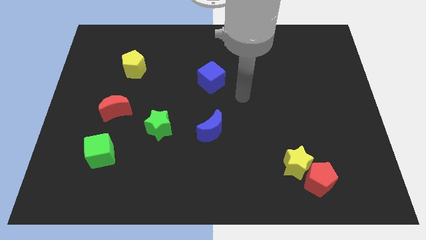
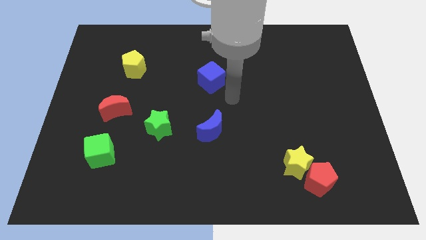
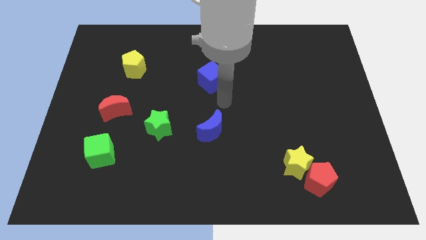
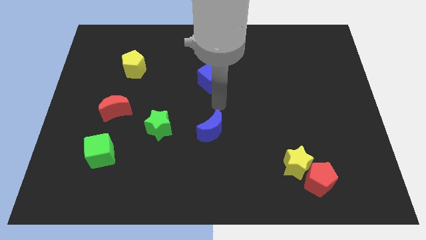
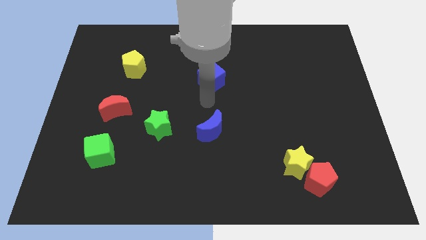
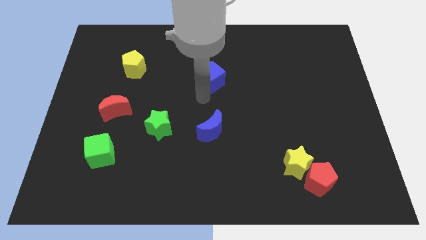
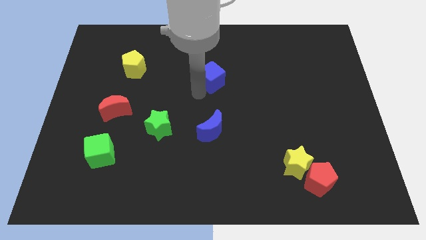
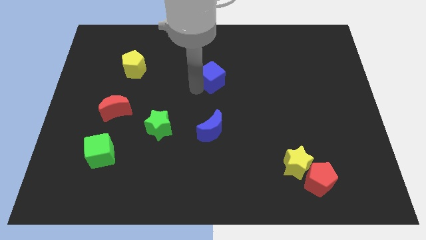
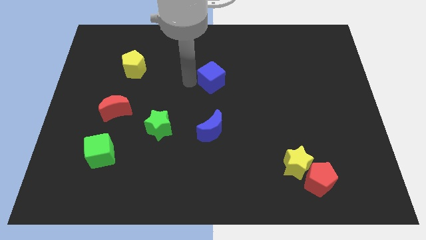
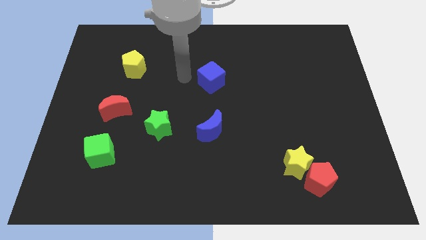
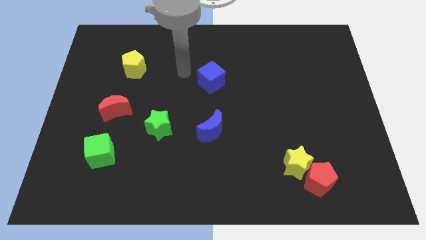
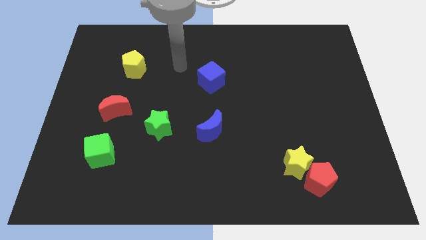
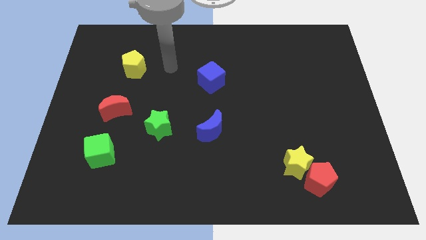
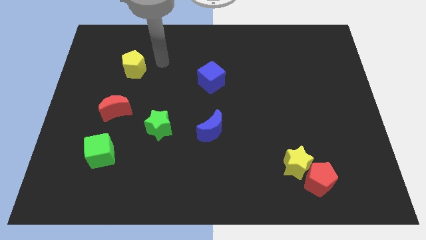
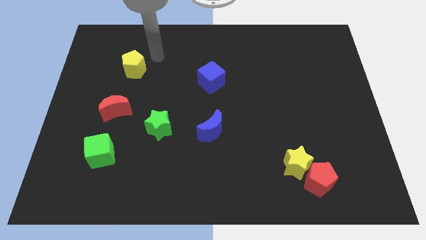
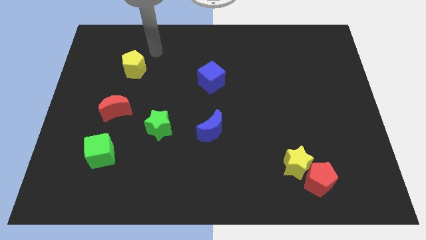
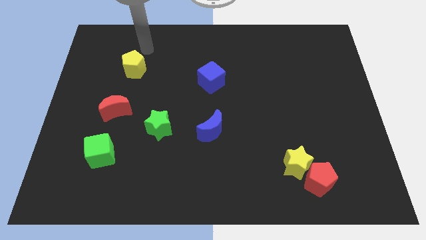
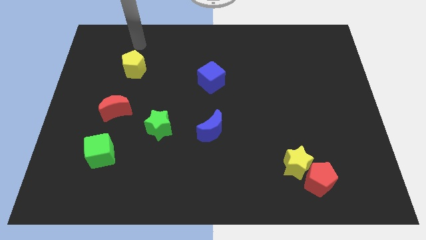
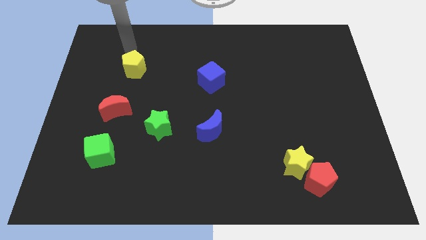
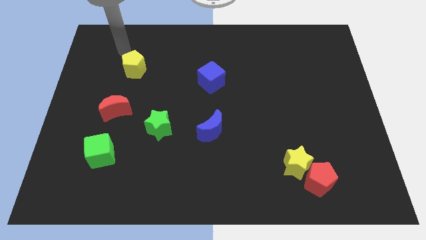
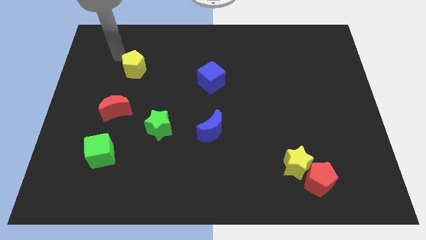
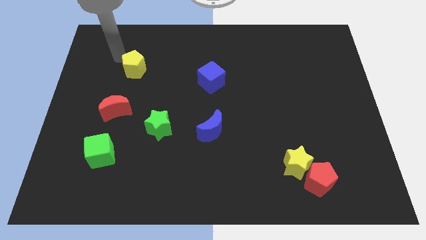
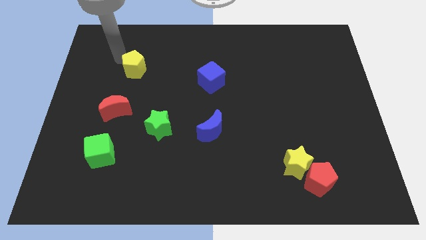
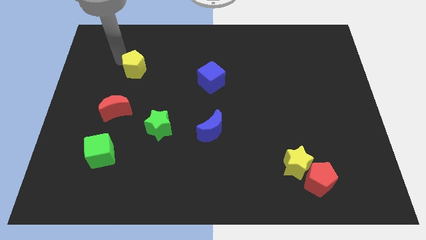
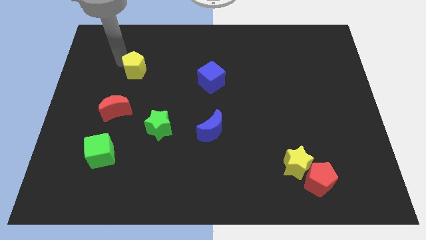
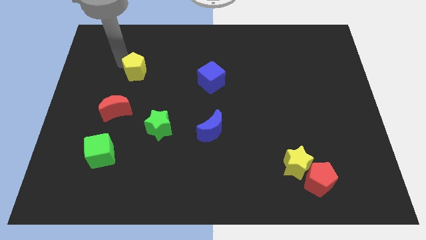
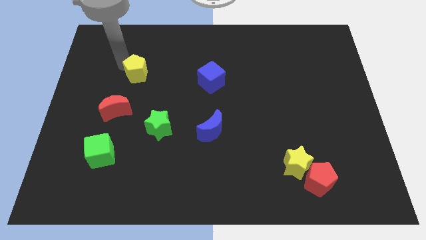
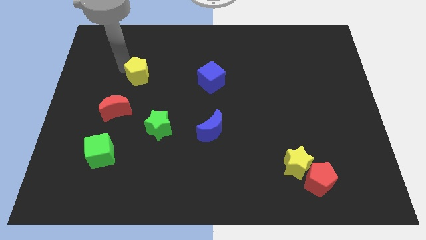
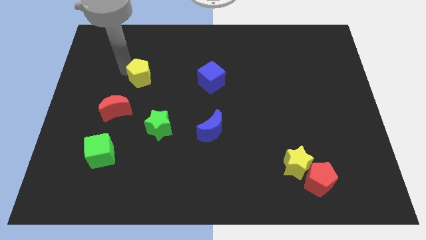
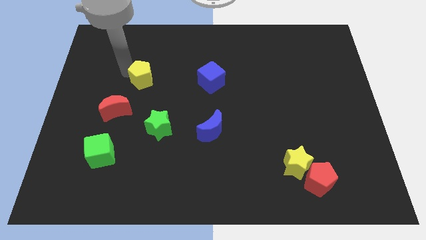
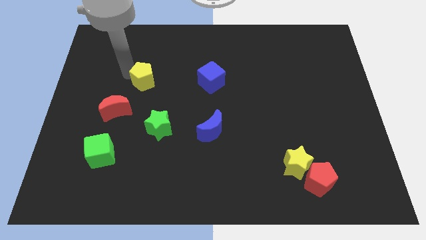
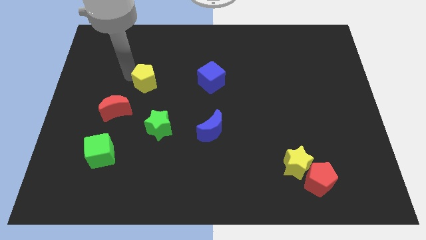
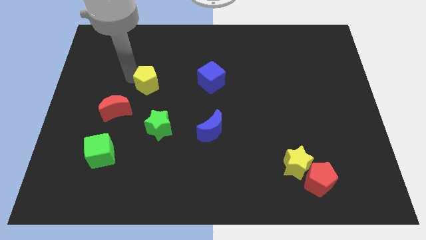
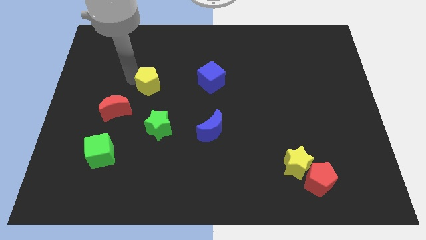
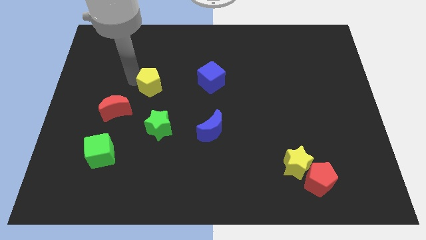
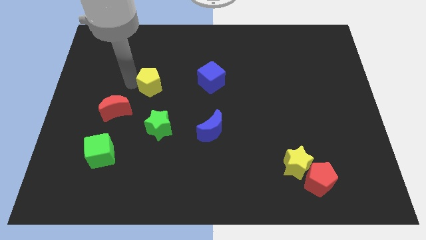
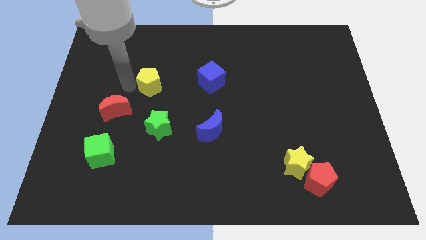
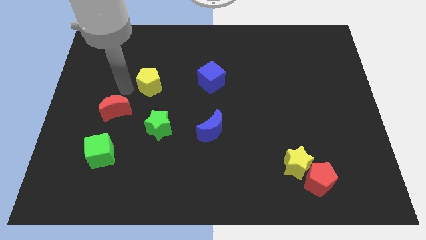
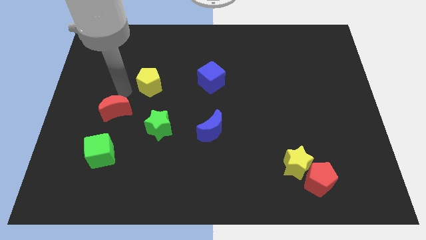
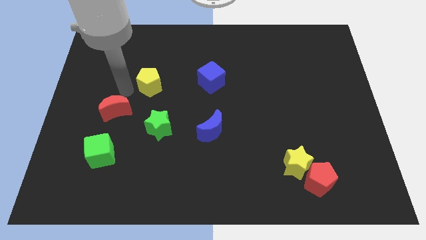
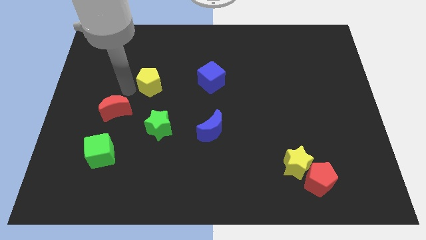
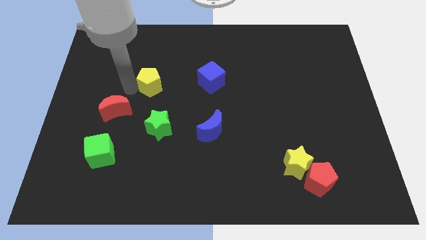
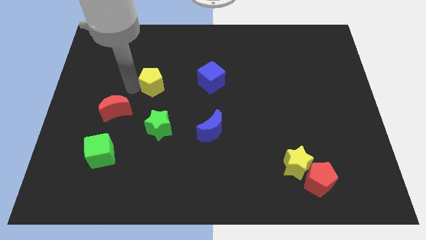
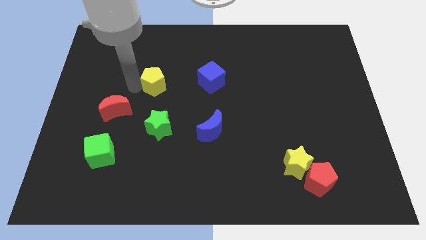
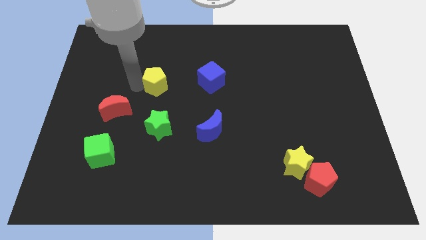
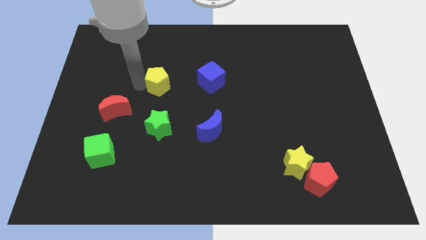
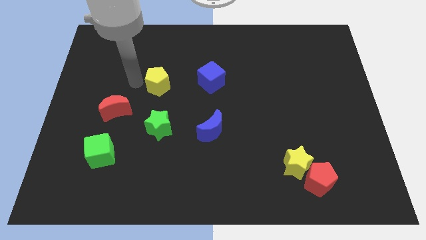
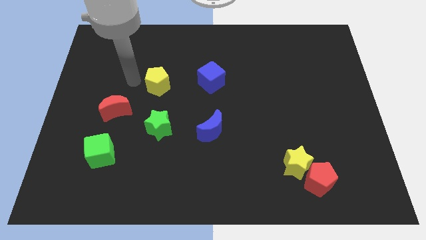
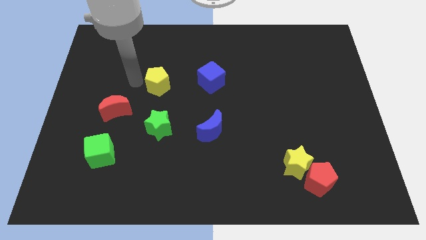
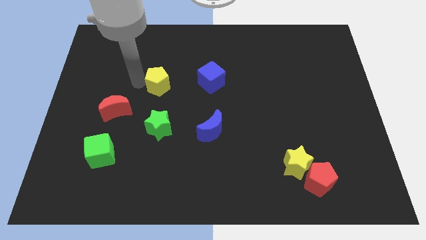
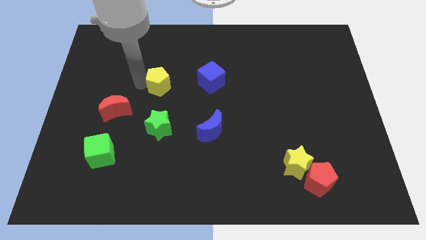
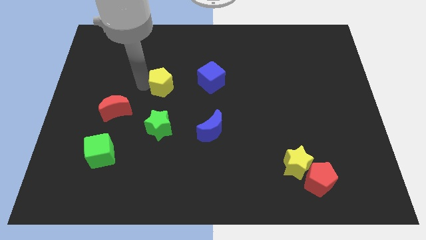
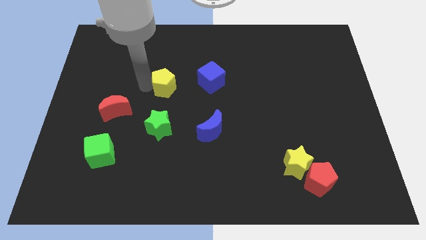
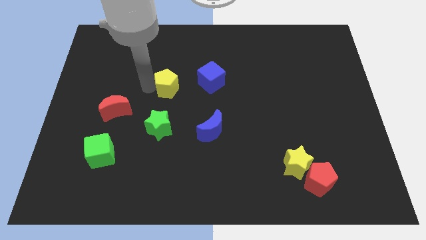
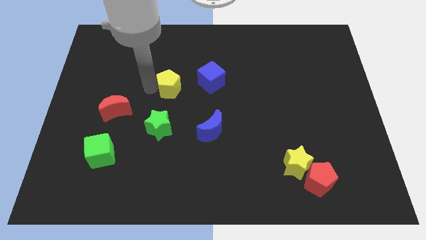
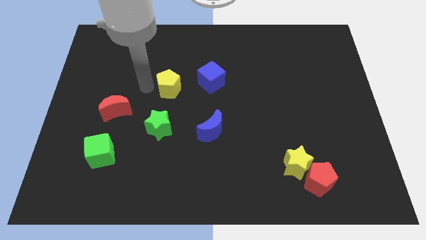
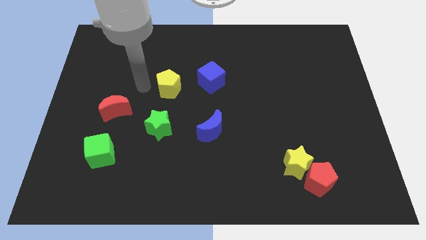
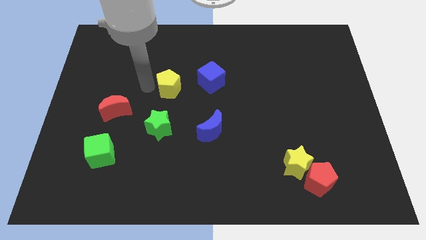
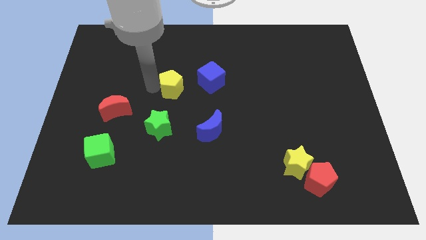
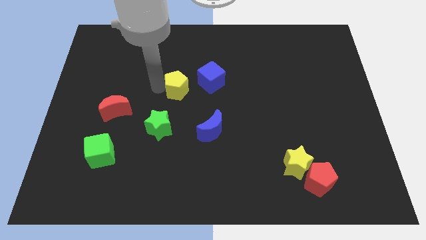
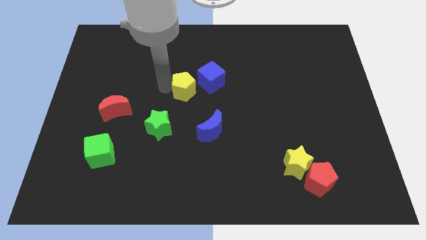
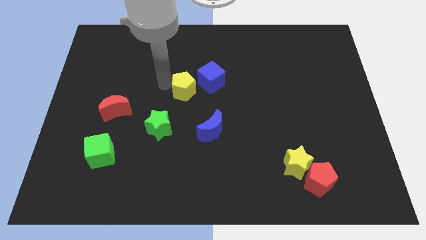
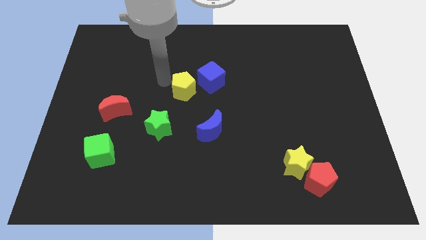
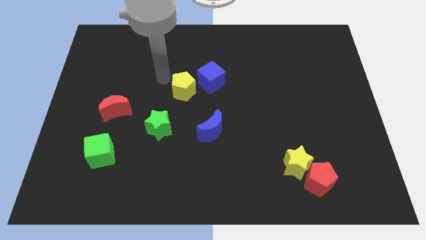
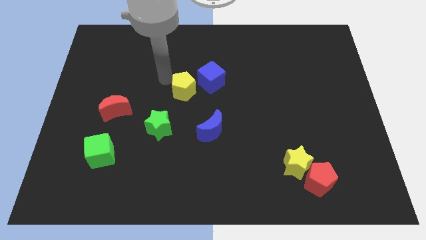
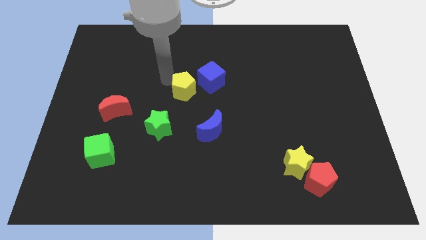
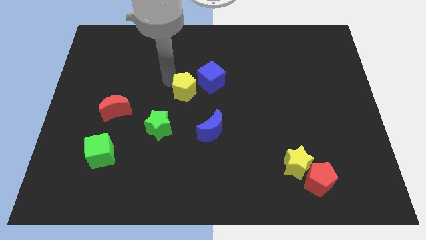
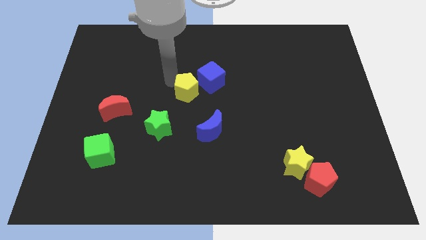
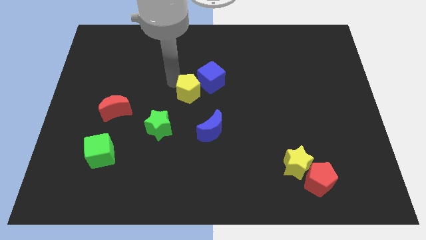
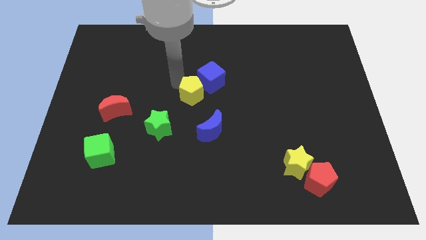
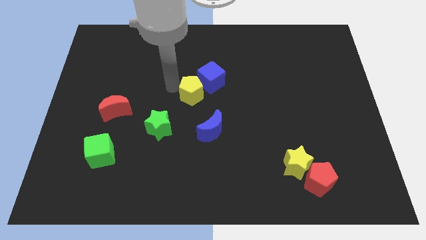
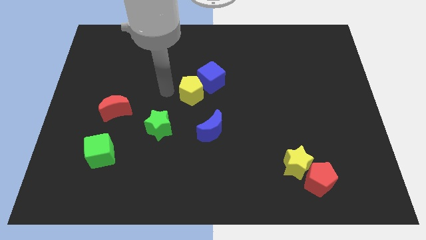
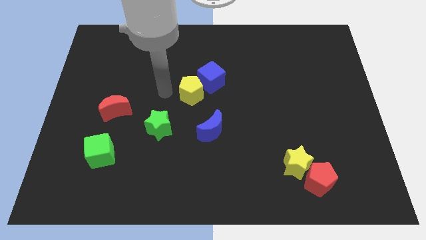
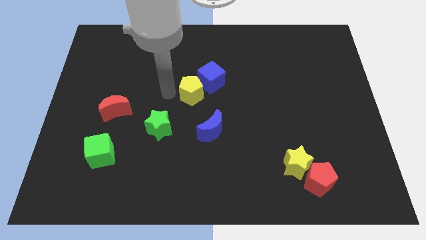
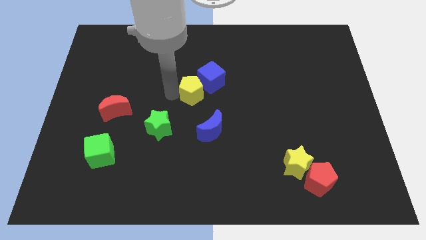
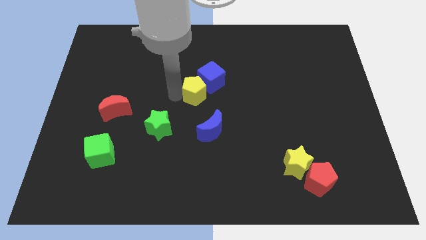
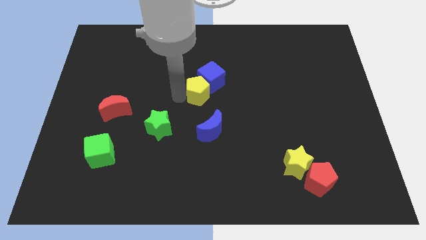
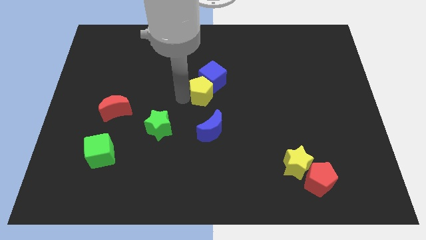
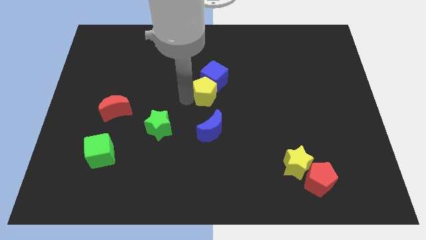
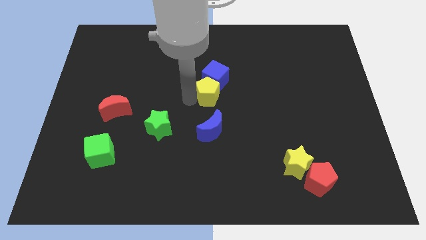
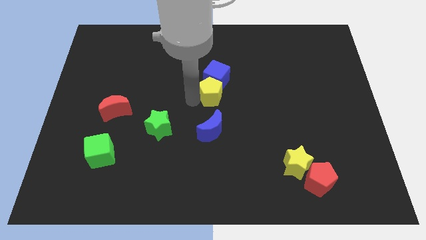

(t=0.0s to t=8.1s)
move the yellow pentagon to the bottom right of the blue cube
